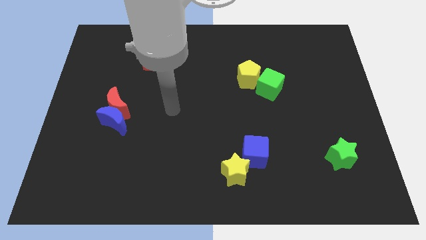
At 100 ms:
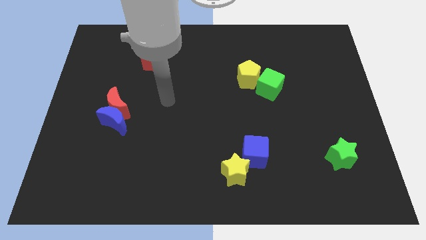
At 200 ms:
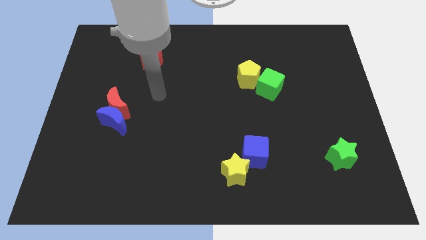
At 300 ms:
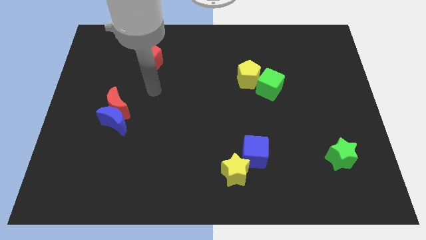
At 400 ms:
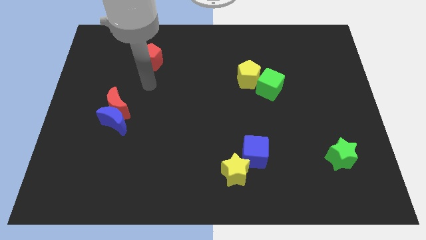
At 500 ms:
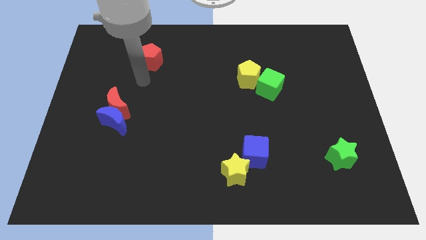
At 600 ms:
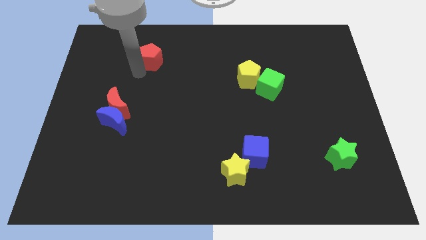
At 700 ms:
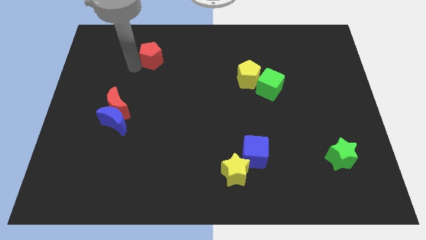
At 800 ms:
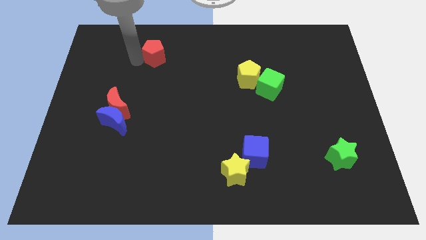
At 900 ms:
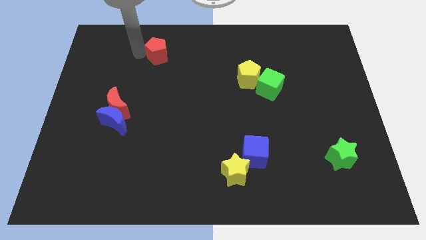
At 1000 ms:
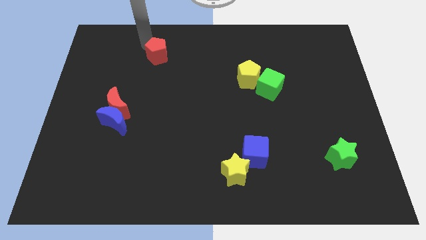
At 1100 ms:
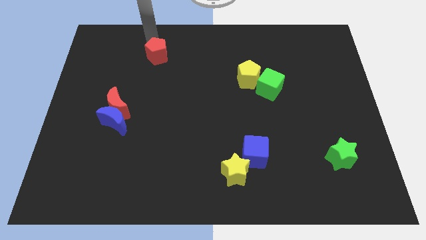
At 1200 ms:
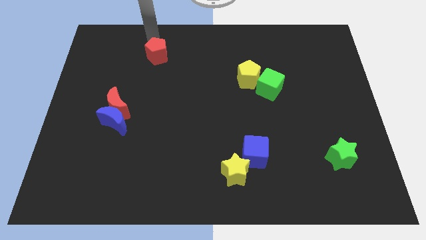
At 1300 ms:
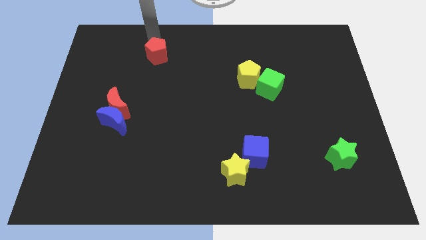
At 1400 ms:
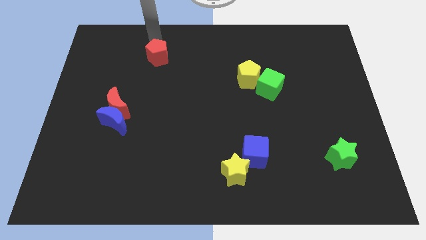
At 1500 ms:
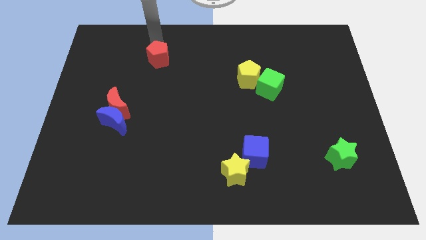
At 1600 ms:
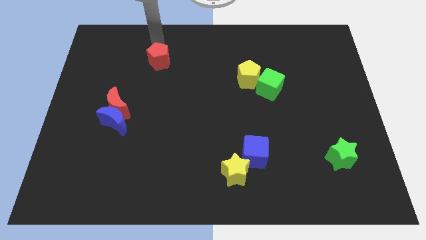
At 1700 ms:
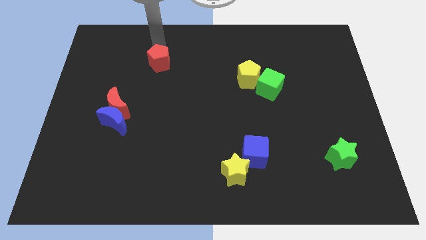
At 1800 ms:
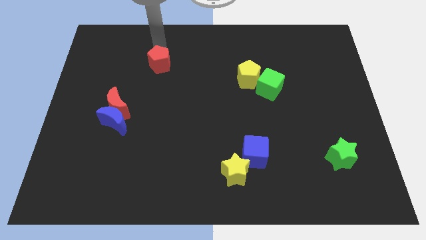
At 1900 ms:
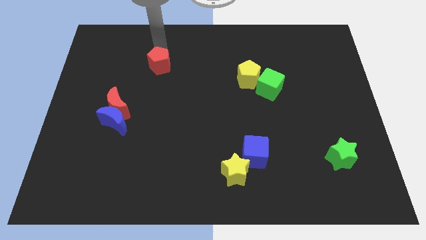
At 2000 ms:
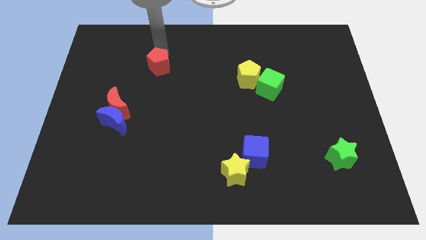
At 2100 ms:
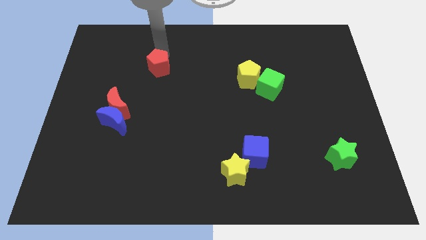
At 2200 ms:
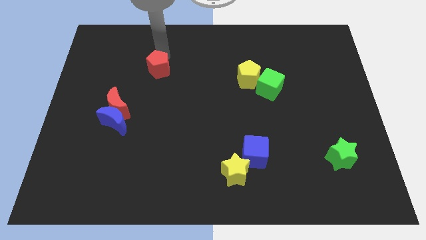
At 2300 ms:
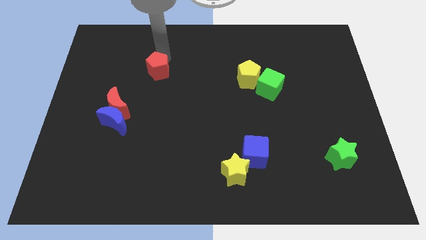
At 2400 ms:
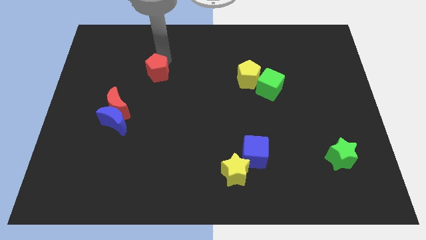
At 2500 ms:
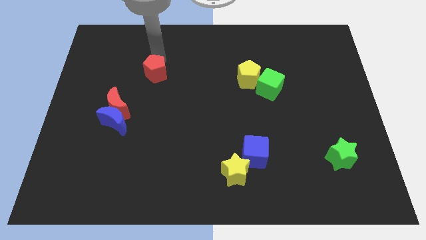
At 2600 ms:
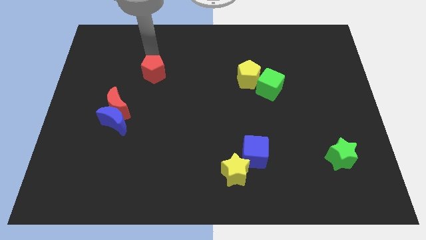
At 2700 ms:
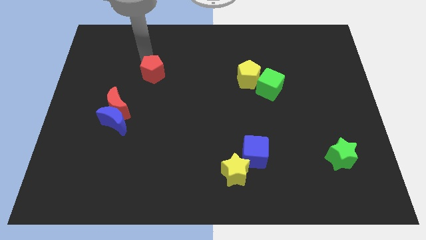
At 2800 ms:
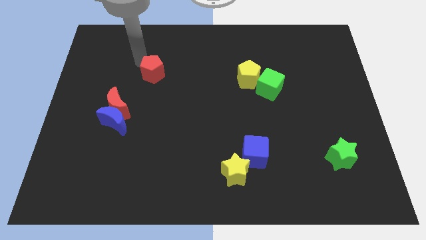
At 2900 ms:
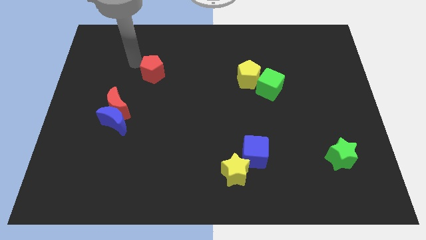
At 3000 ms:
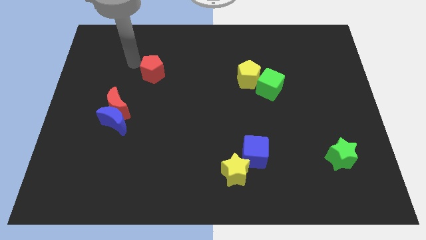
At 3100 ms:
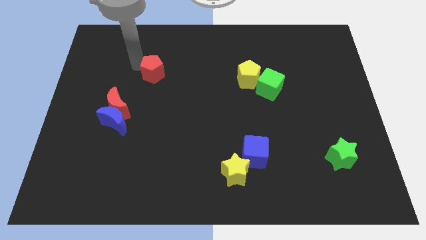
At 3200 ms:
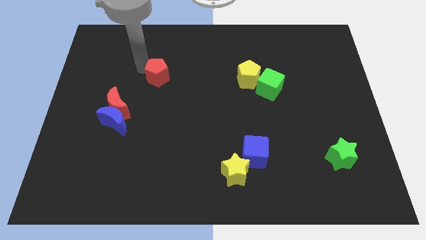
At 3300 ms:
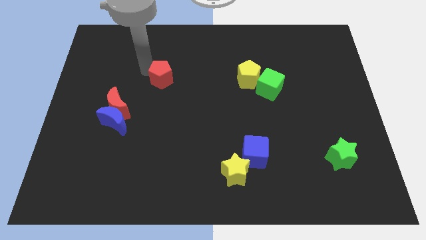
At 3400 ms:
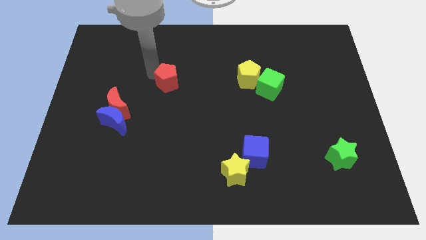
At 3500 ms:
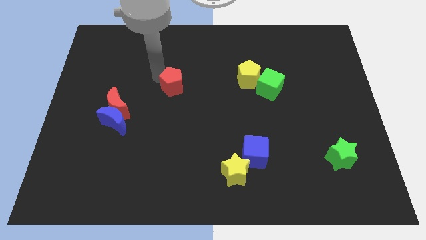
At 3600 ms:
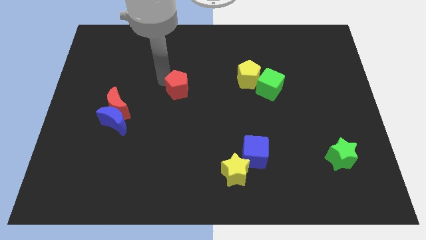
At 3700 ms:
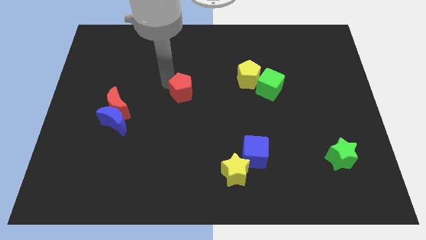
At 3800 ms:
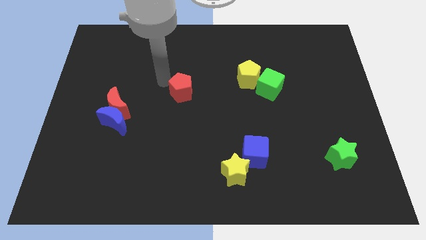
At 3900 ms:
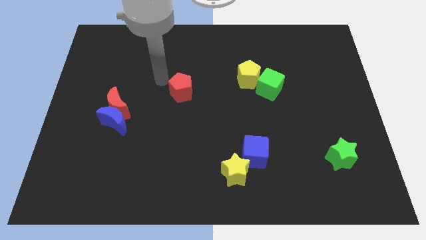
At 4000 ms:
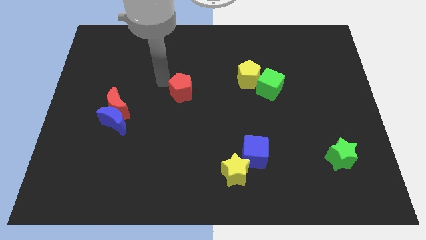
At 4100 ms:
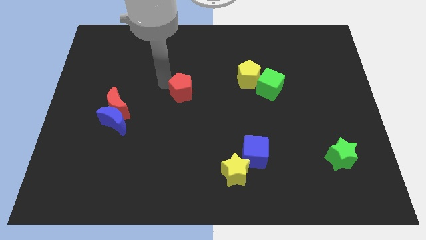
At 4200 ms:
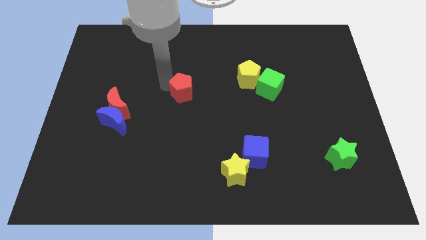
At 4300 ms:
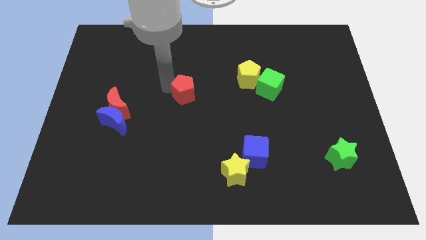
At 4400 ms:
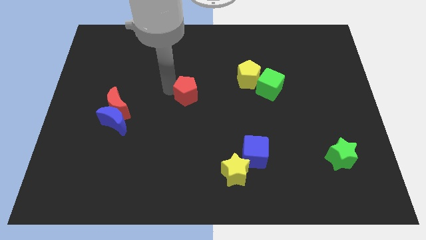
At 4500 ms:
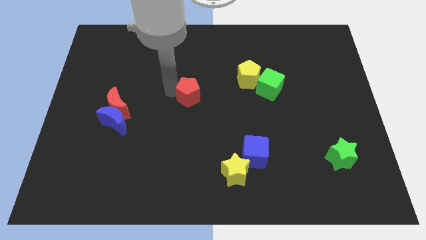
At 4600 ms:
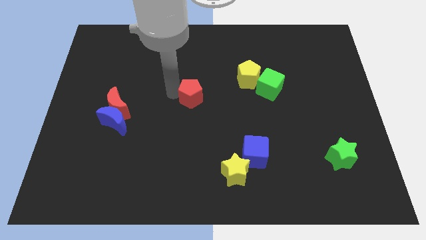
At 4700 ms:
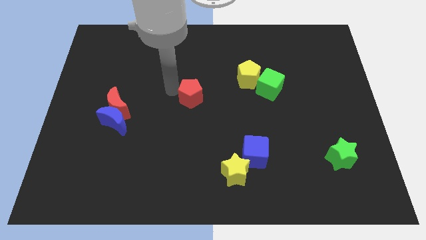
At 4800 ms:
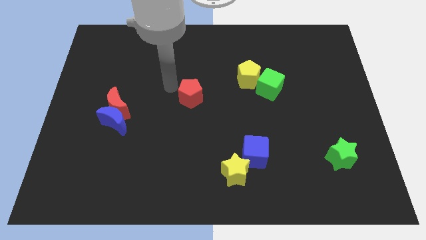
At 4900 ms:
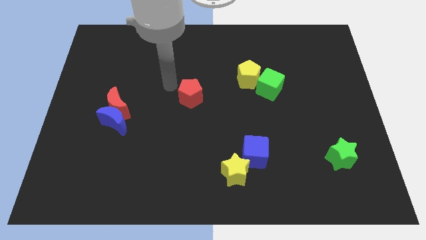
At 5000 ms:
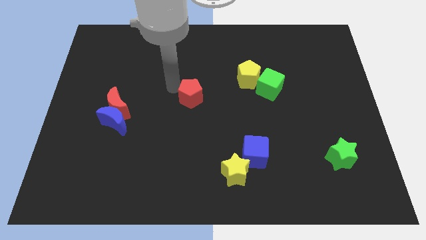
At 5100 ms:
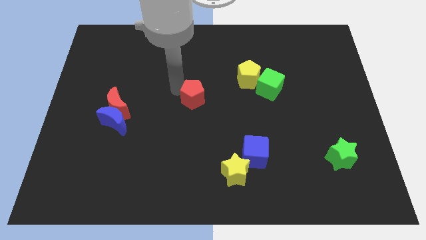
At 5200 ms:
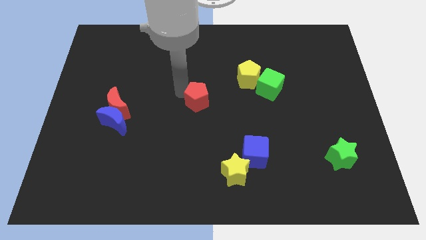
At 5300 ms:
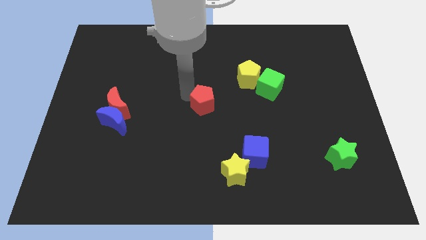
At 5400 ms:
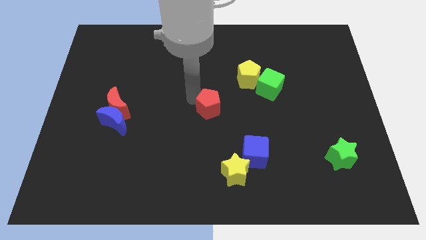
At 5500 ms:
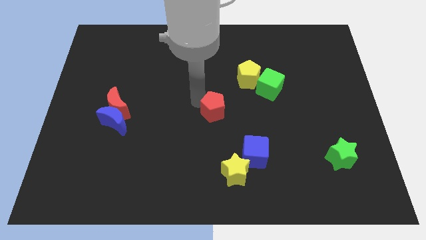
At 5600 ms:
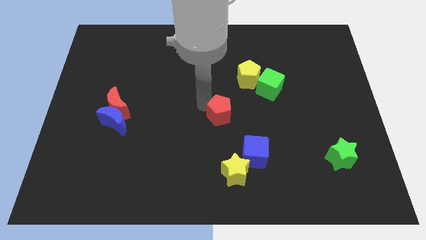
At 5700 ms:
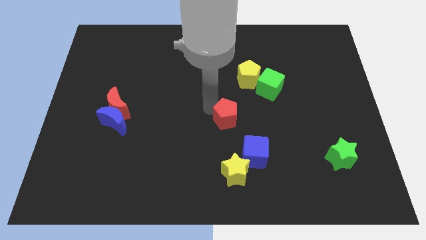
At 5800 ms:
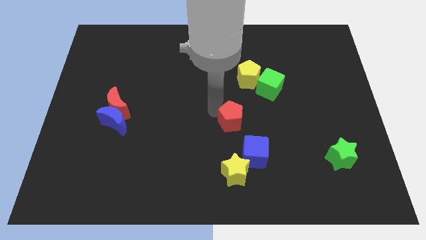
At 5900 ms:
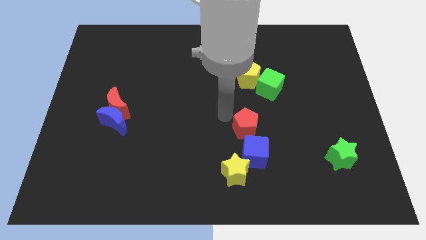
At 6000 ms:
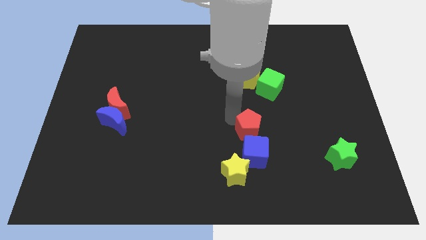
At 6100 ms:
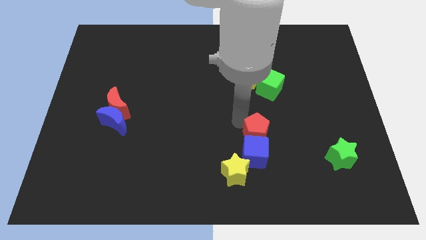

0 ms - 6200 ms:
put the red pentagon to the blue cube
